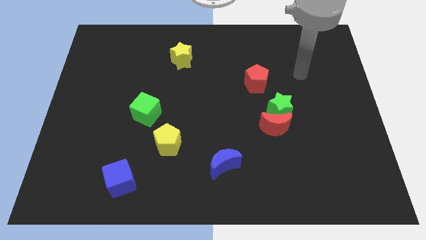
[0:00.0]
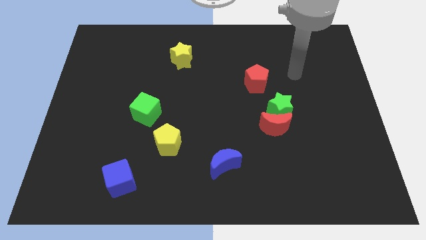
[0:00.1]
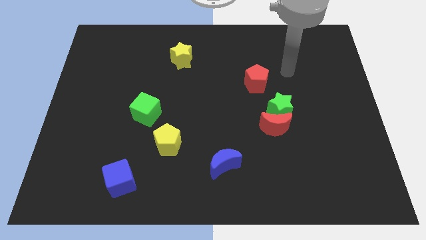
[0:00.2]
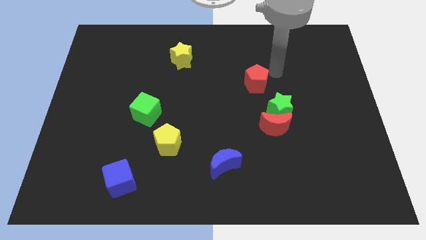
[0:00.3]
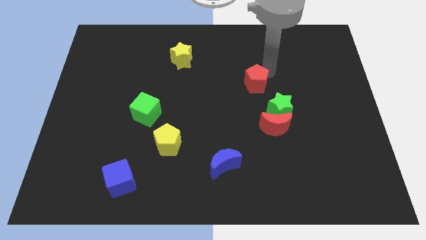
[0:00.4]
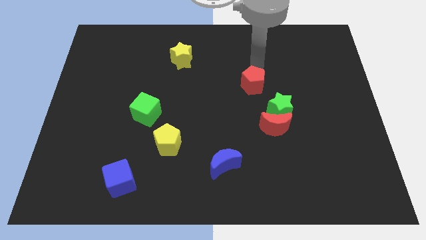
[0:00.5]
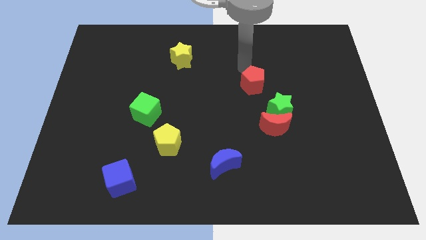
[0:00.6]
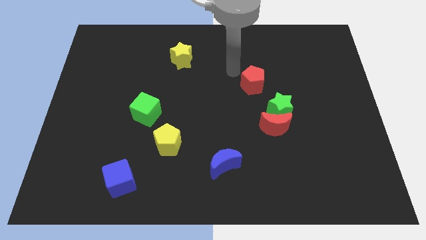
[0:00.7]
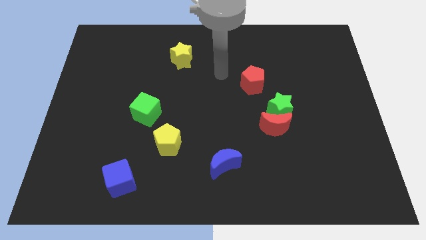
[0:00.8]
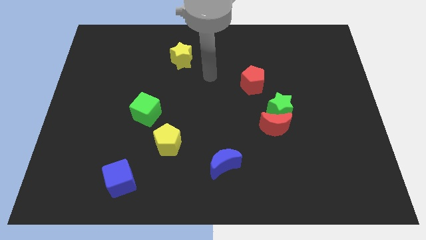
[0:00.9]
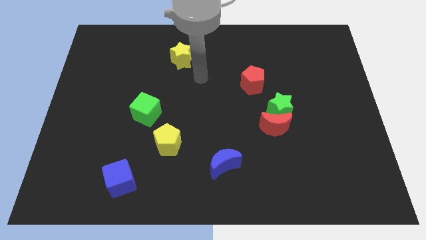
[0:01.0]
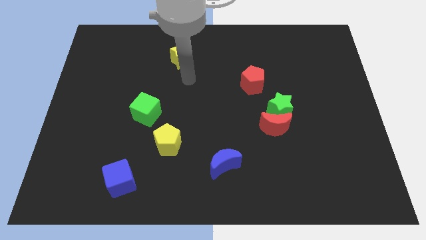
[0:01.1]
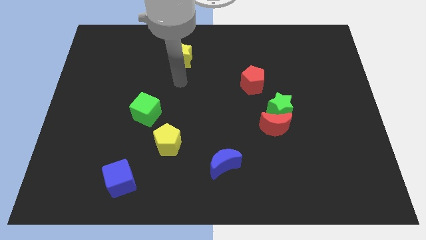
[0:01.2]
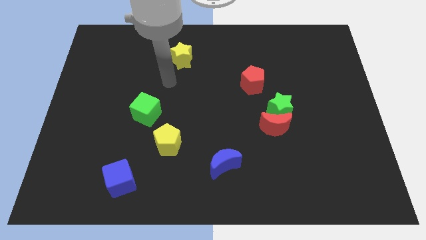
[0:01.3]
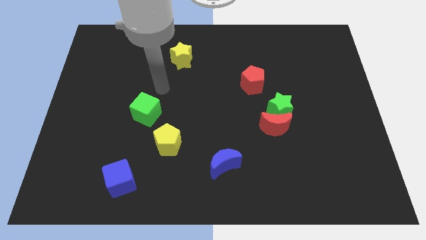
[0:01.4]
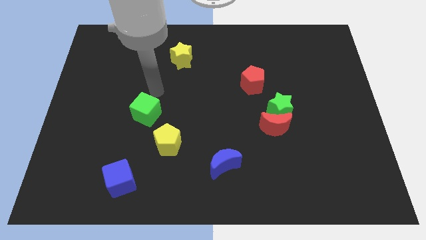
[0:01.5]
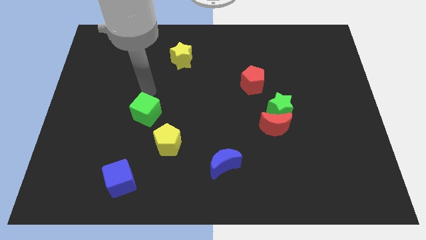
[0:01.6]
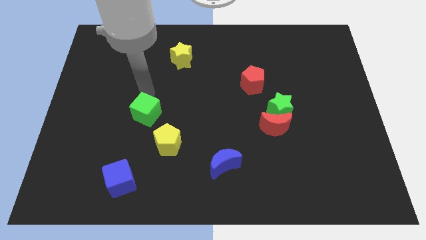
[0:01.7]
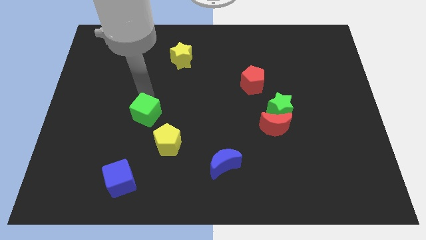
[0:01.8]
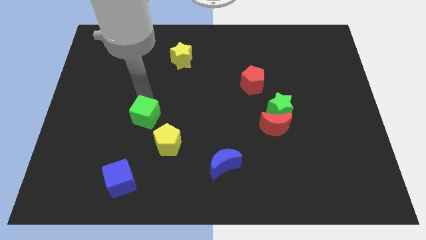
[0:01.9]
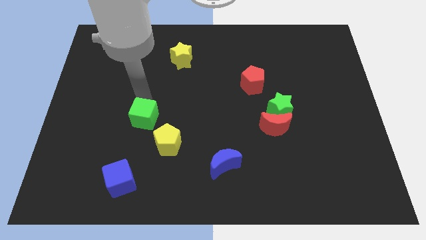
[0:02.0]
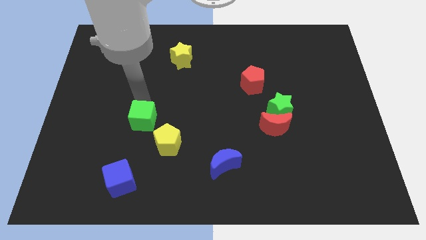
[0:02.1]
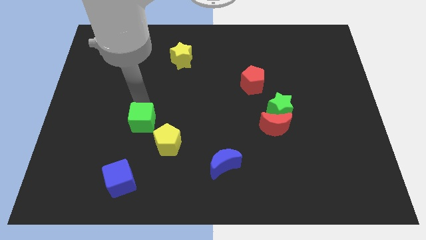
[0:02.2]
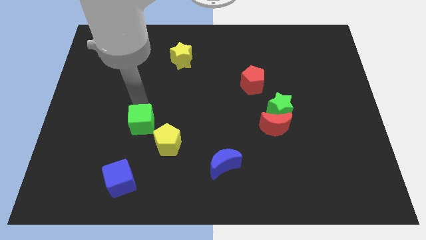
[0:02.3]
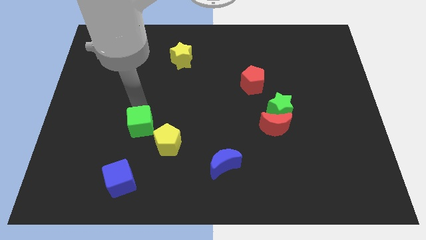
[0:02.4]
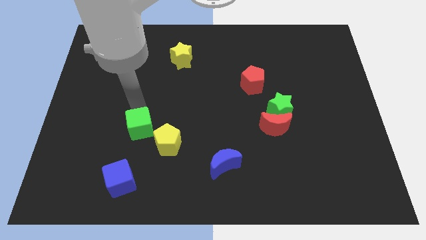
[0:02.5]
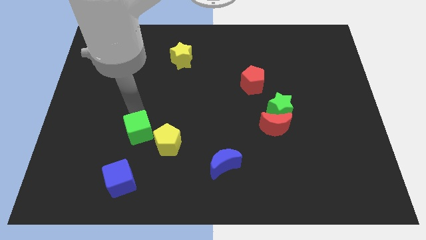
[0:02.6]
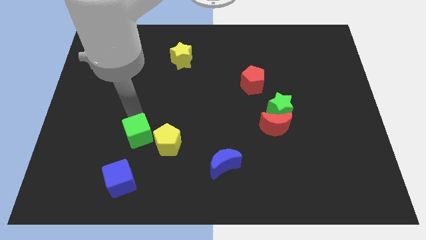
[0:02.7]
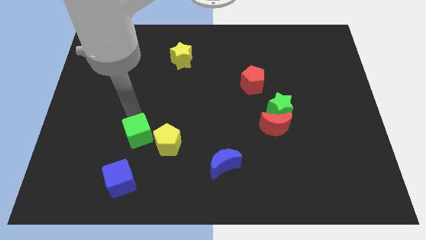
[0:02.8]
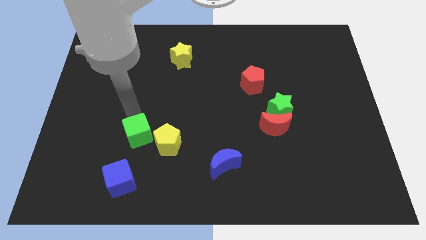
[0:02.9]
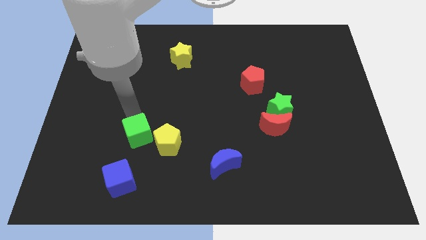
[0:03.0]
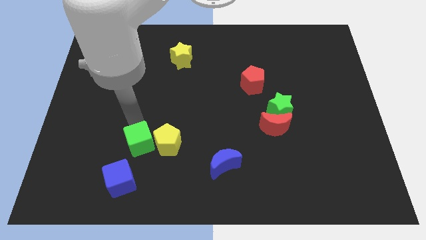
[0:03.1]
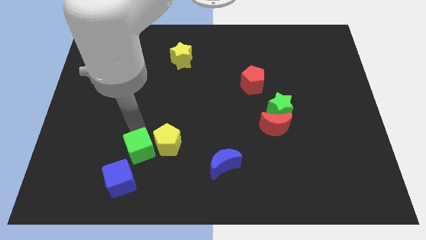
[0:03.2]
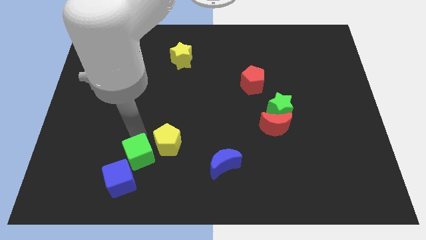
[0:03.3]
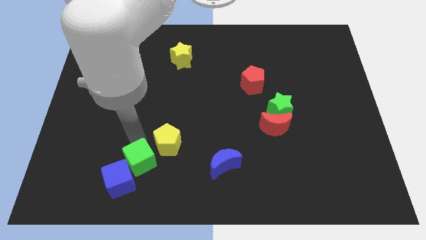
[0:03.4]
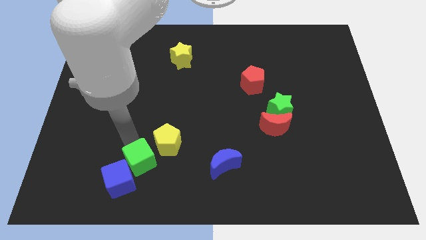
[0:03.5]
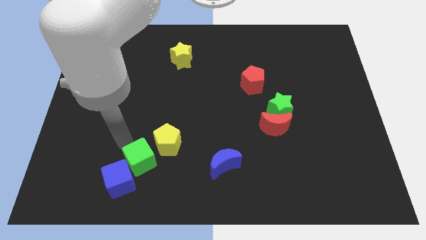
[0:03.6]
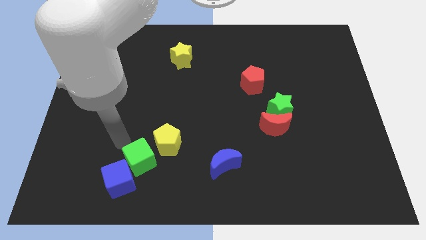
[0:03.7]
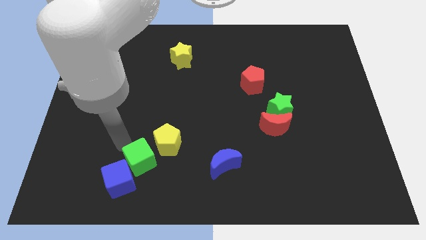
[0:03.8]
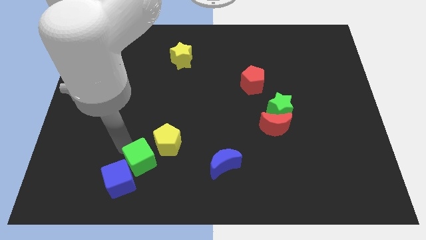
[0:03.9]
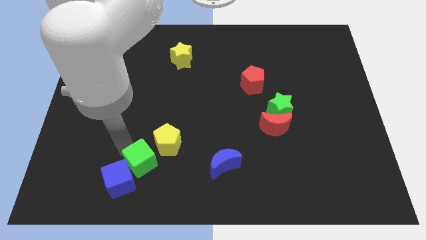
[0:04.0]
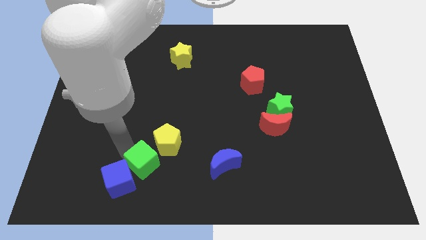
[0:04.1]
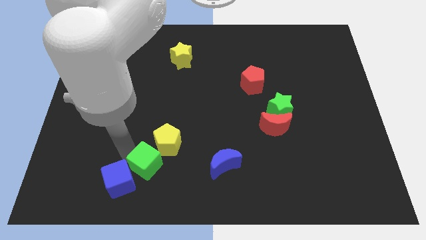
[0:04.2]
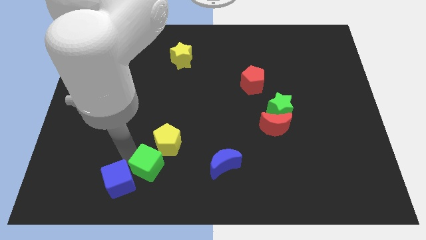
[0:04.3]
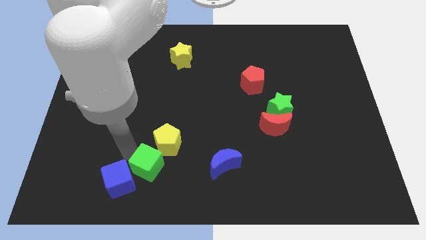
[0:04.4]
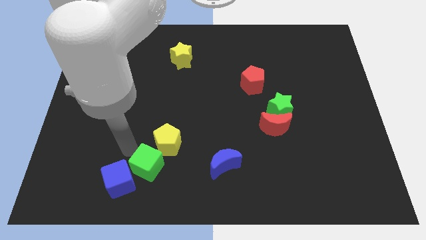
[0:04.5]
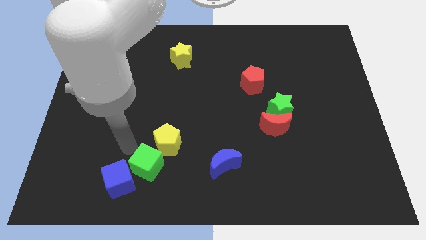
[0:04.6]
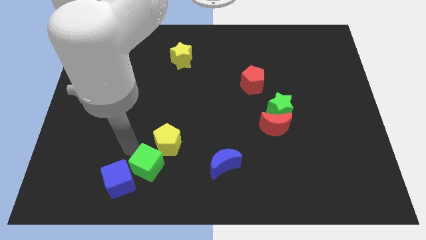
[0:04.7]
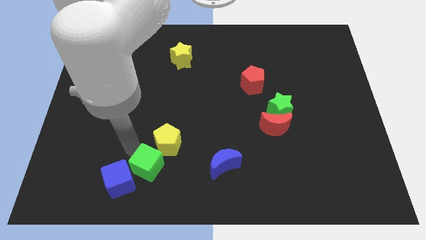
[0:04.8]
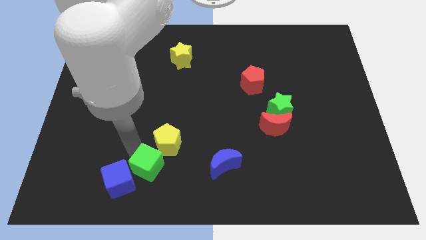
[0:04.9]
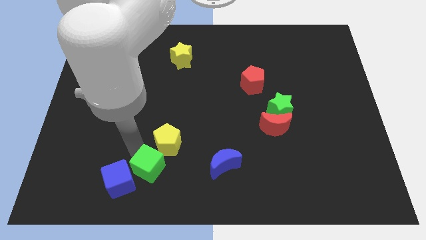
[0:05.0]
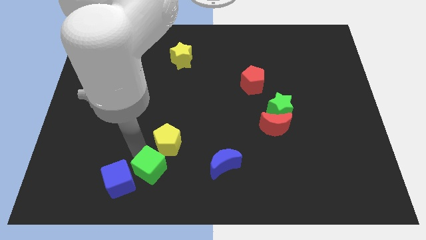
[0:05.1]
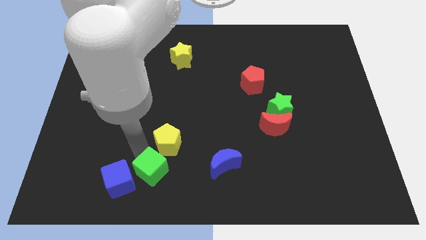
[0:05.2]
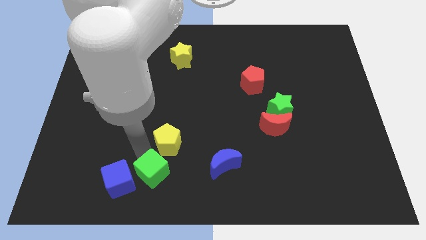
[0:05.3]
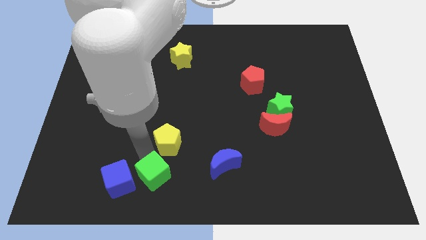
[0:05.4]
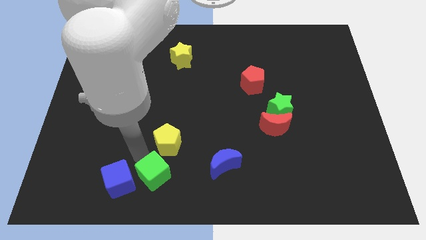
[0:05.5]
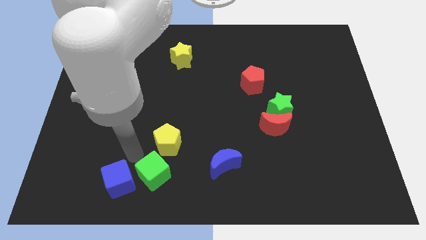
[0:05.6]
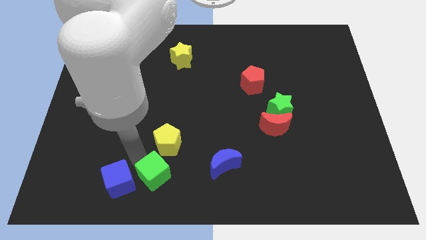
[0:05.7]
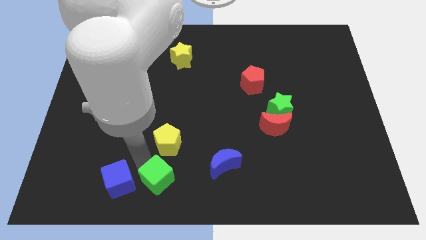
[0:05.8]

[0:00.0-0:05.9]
put the green cube to the bottom

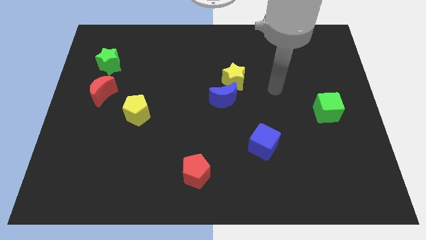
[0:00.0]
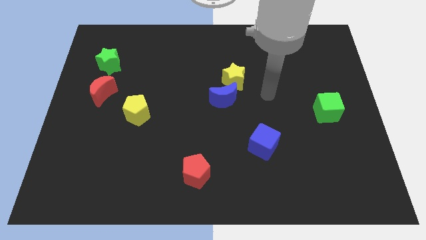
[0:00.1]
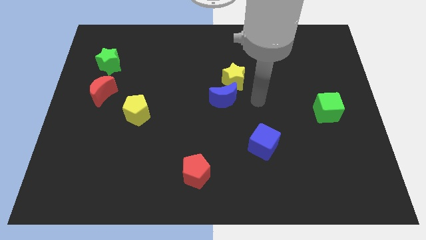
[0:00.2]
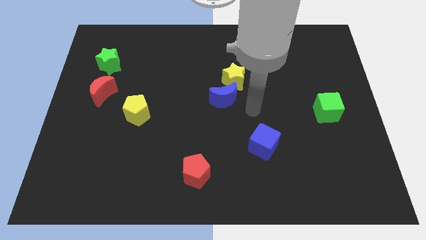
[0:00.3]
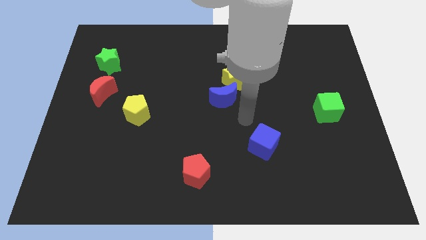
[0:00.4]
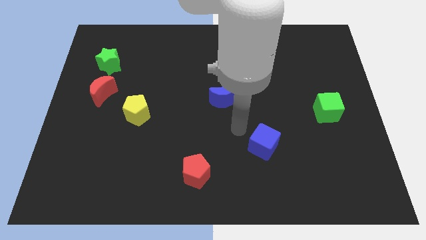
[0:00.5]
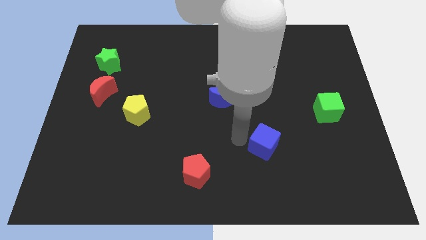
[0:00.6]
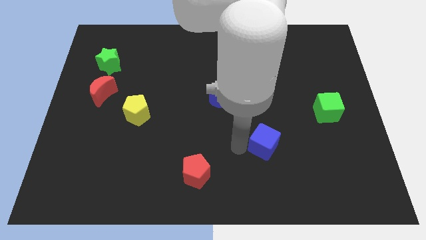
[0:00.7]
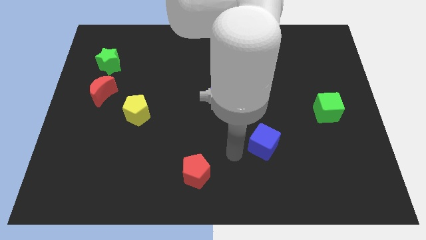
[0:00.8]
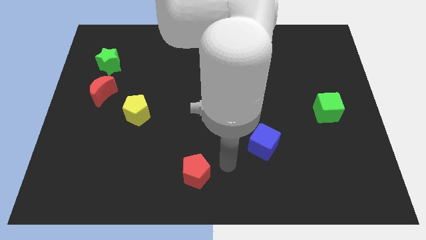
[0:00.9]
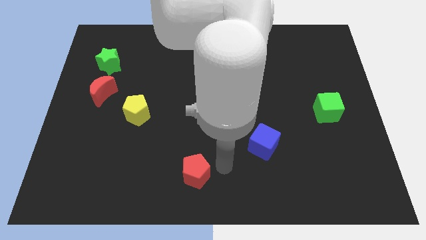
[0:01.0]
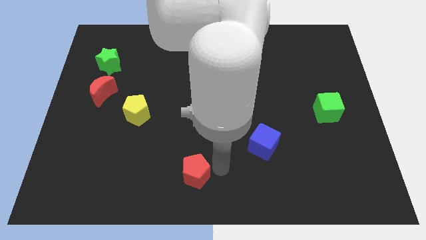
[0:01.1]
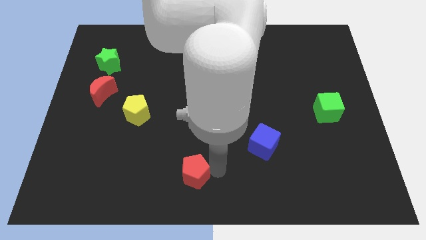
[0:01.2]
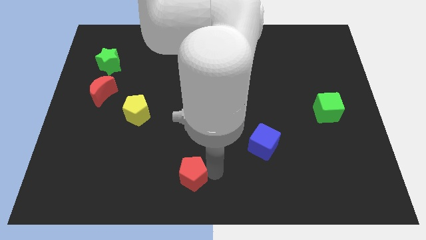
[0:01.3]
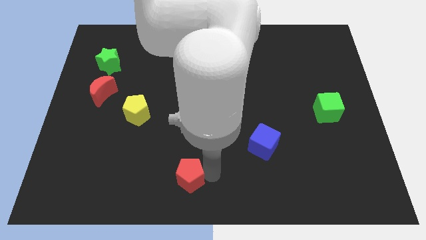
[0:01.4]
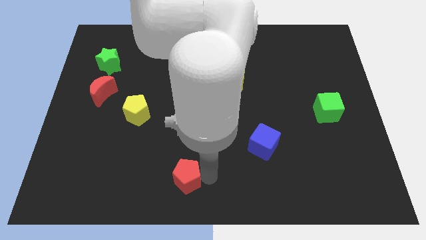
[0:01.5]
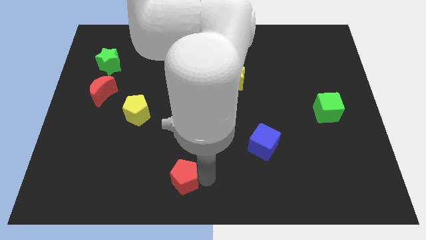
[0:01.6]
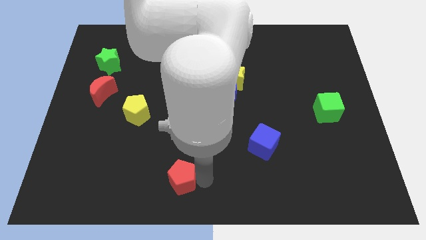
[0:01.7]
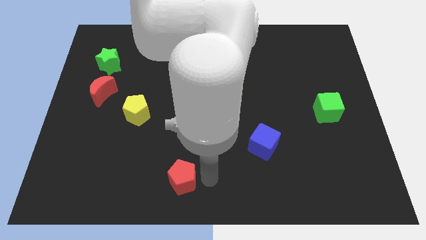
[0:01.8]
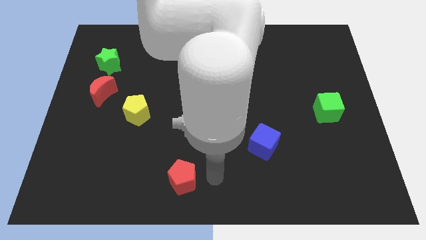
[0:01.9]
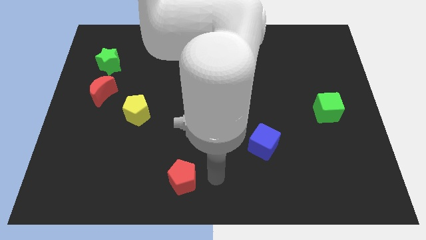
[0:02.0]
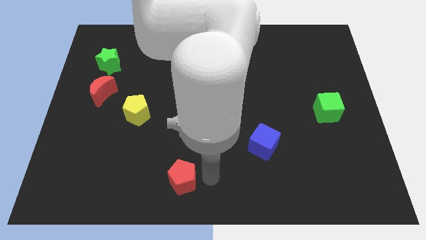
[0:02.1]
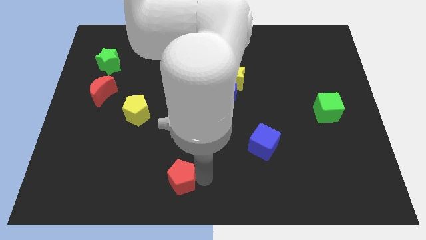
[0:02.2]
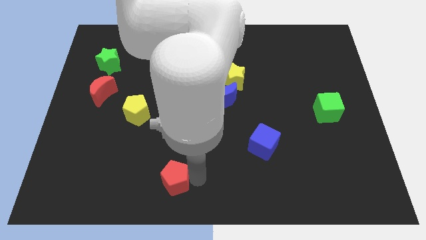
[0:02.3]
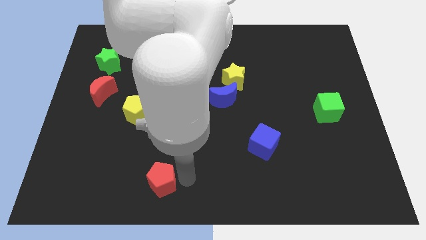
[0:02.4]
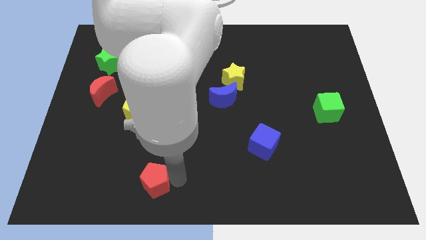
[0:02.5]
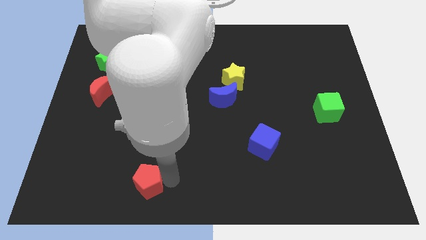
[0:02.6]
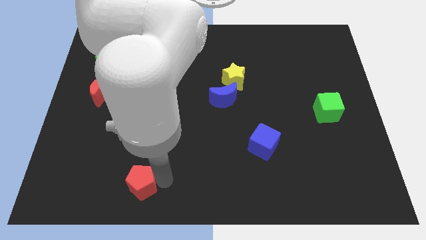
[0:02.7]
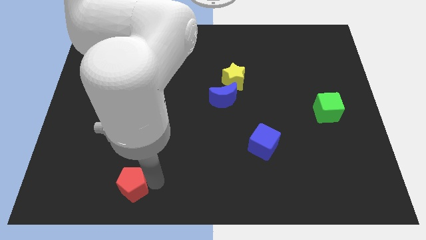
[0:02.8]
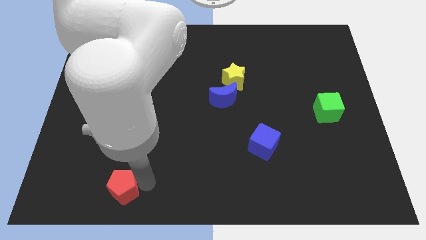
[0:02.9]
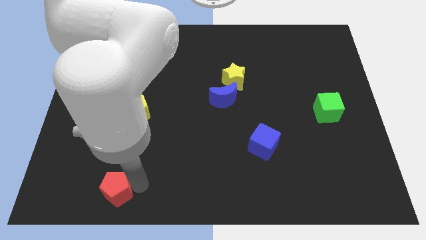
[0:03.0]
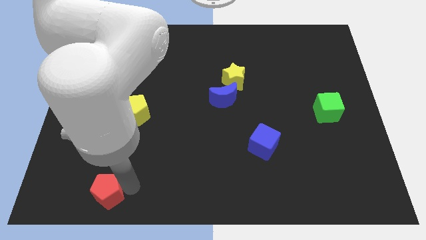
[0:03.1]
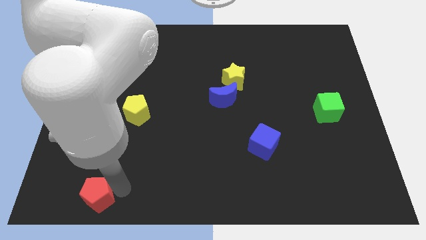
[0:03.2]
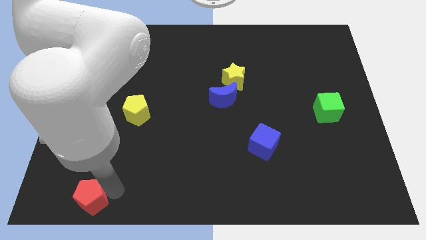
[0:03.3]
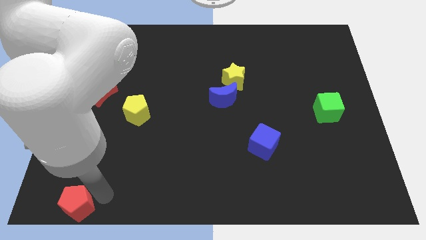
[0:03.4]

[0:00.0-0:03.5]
slide the red pentagon to the bottom left
